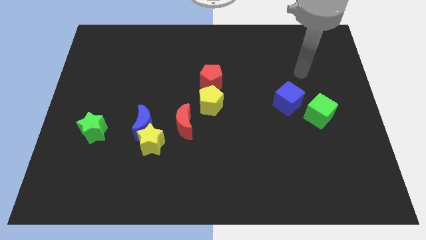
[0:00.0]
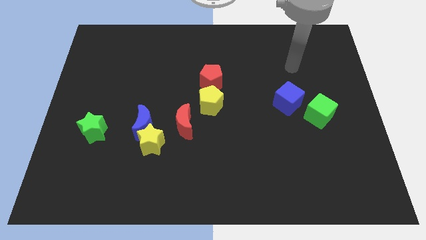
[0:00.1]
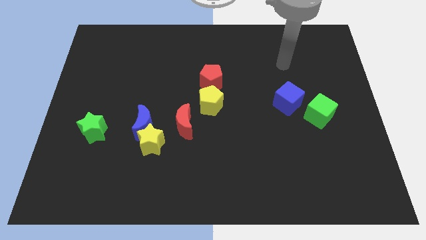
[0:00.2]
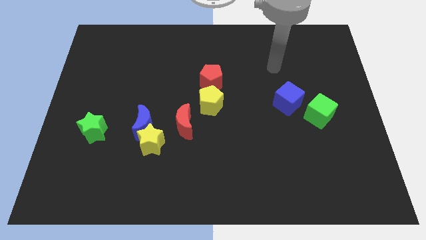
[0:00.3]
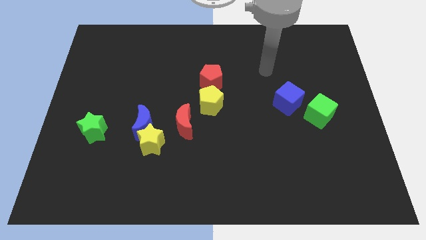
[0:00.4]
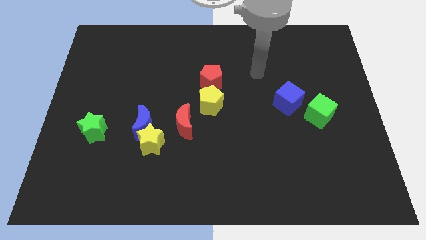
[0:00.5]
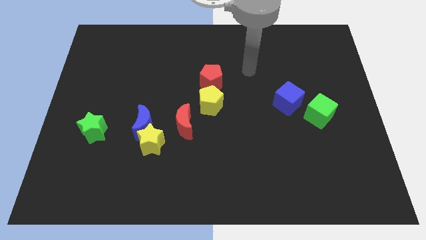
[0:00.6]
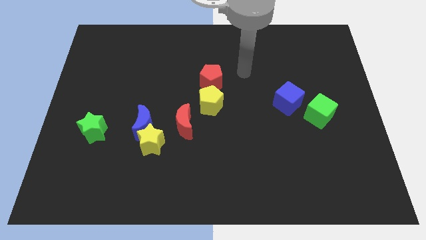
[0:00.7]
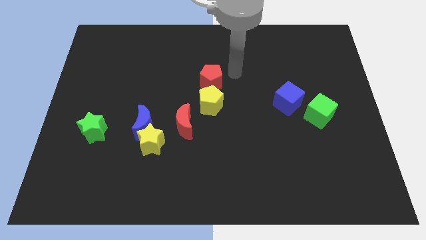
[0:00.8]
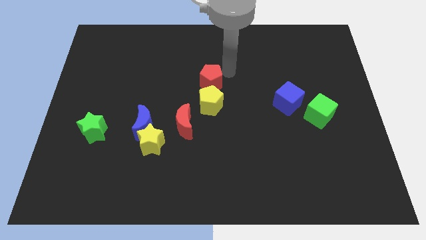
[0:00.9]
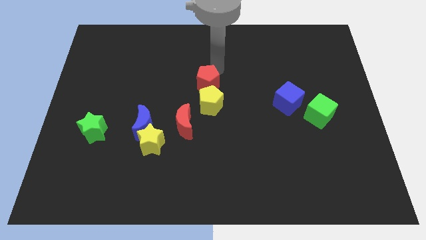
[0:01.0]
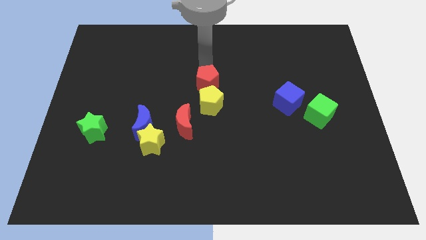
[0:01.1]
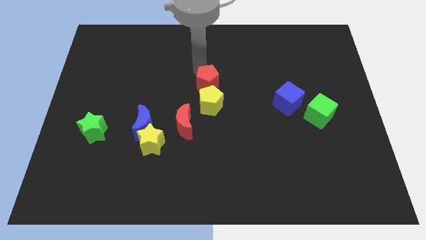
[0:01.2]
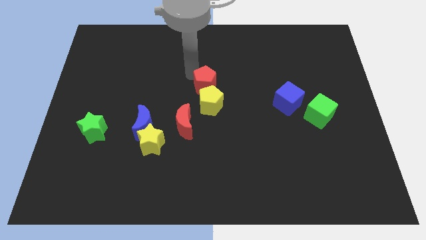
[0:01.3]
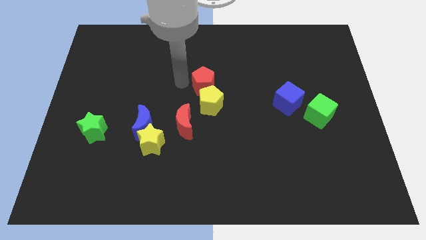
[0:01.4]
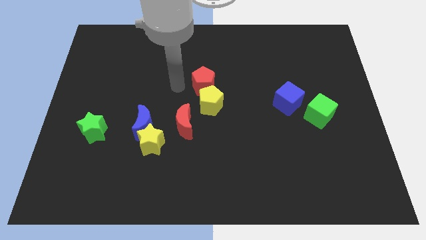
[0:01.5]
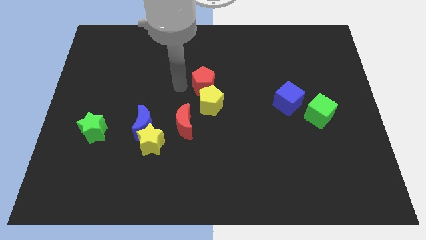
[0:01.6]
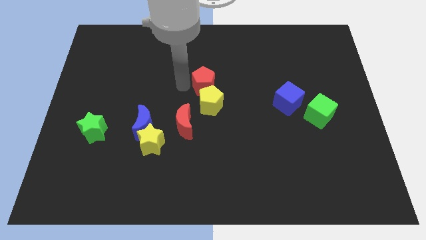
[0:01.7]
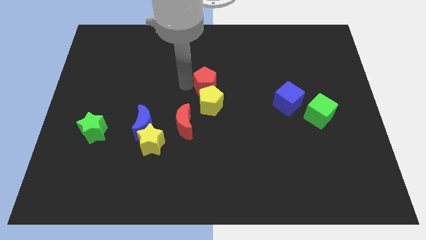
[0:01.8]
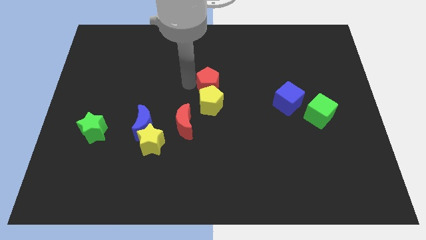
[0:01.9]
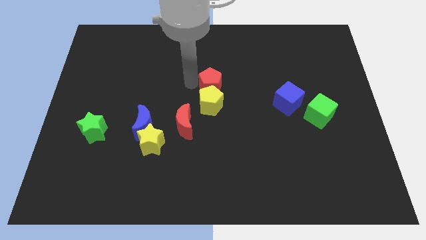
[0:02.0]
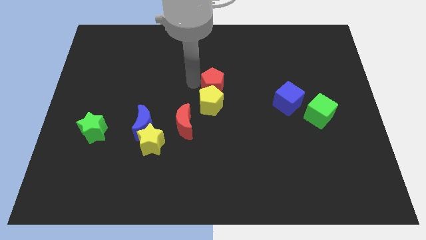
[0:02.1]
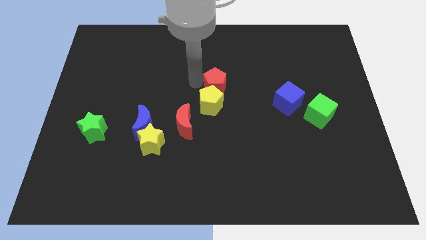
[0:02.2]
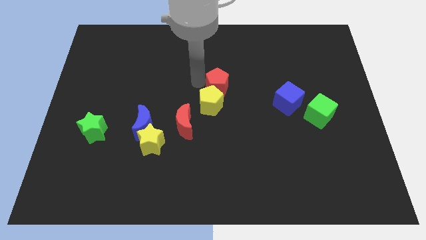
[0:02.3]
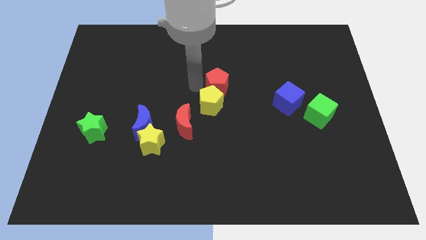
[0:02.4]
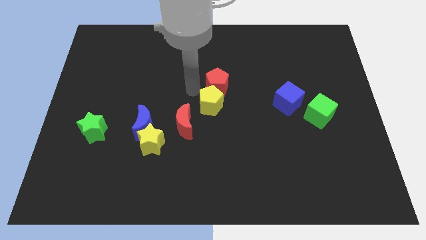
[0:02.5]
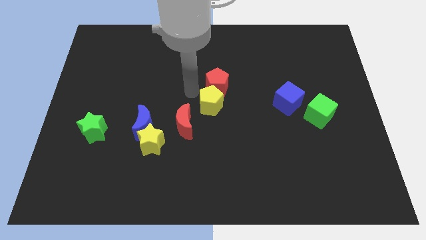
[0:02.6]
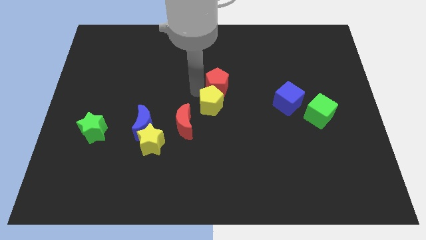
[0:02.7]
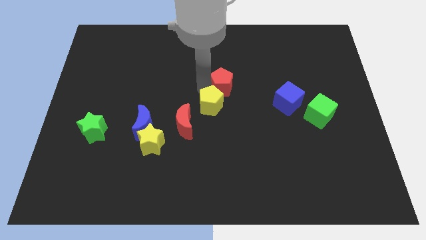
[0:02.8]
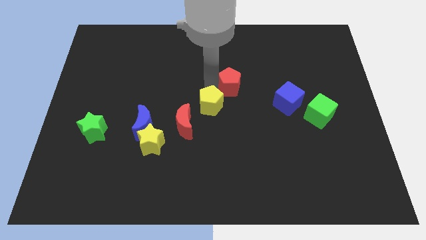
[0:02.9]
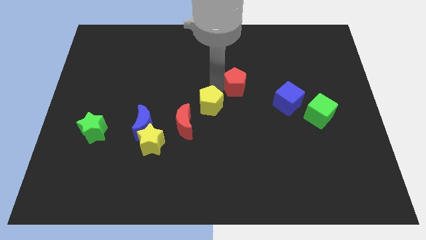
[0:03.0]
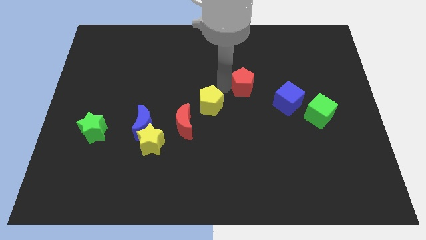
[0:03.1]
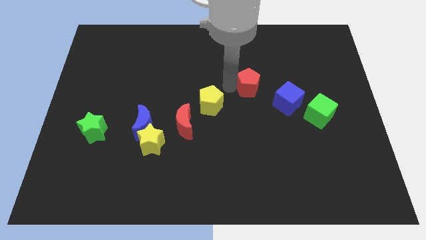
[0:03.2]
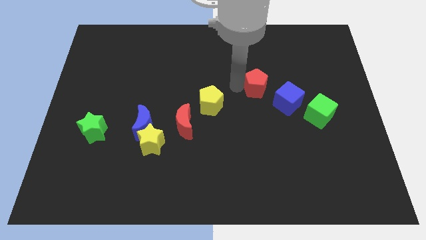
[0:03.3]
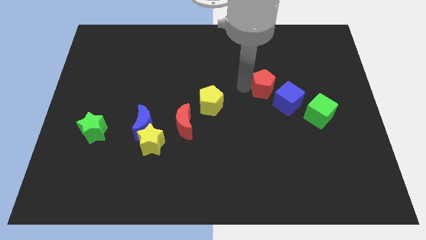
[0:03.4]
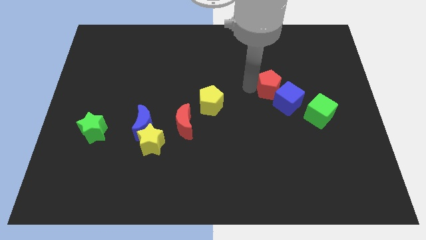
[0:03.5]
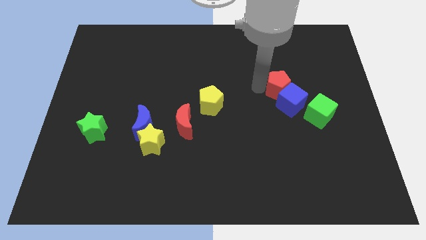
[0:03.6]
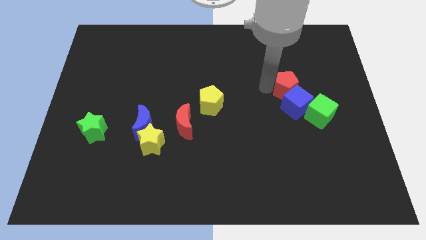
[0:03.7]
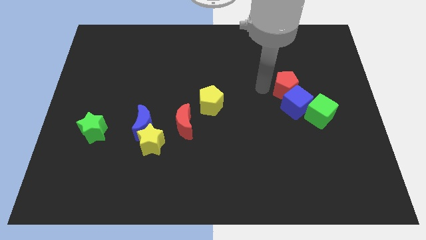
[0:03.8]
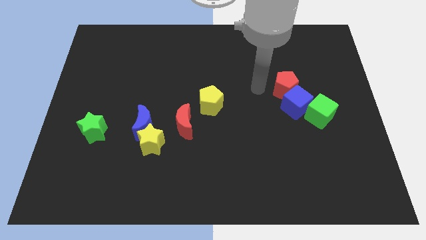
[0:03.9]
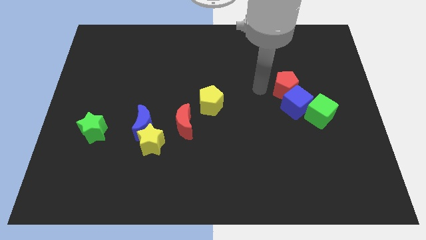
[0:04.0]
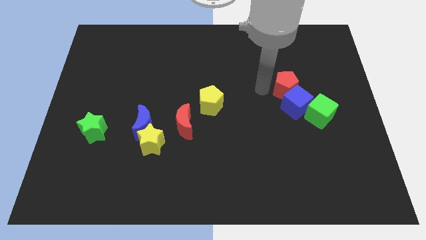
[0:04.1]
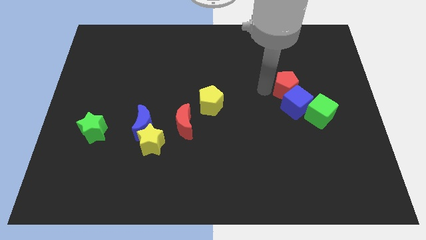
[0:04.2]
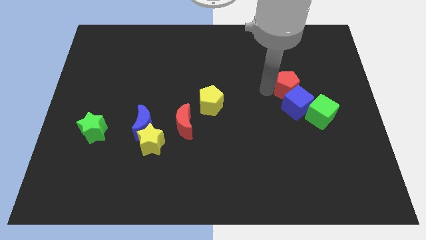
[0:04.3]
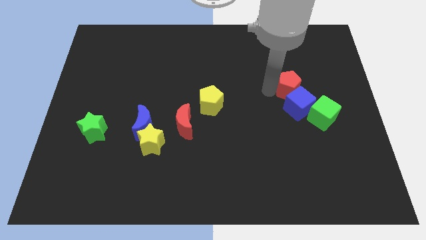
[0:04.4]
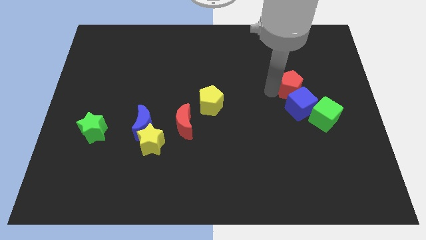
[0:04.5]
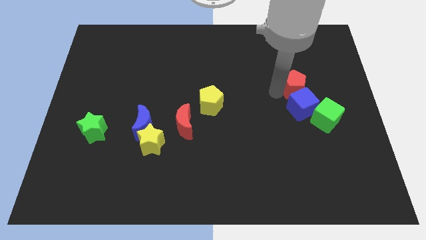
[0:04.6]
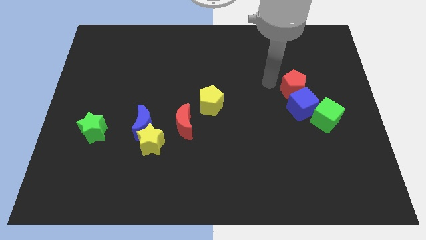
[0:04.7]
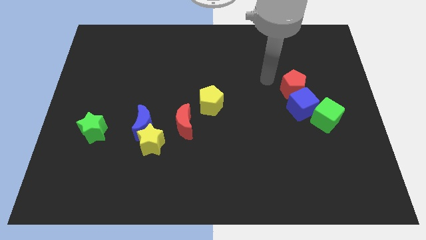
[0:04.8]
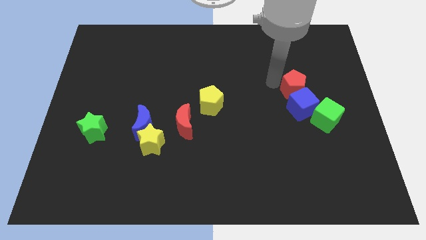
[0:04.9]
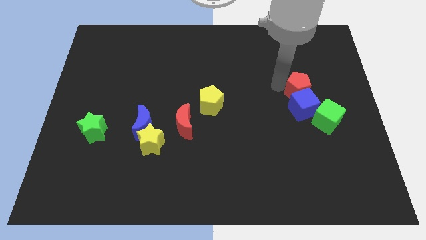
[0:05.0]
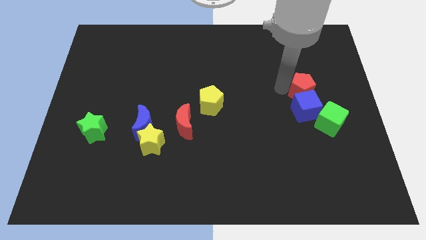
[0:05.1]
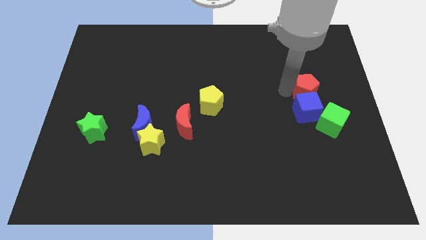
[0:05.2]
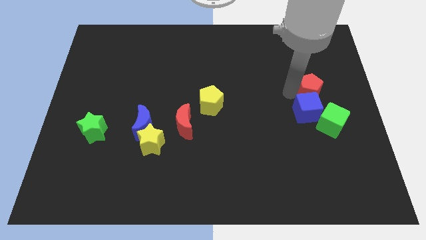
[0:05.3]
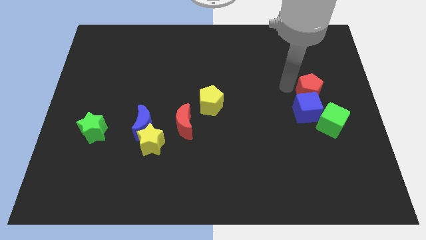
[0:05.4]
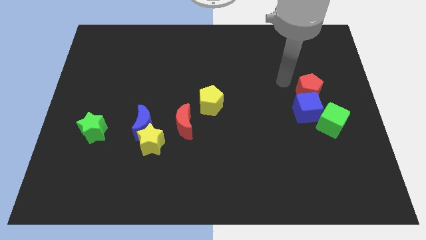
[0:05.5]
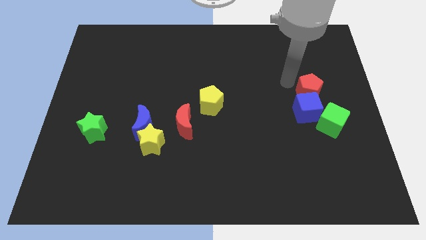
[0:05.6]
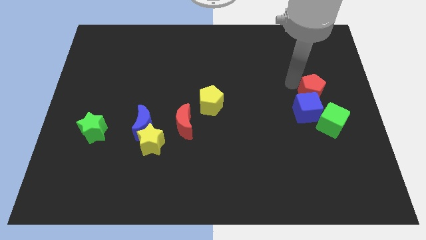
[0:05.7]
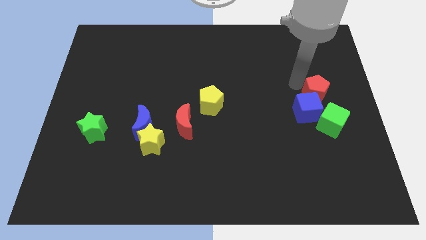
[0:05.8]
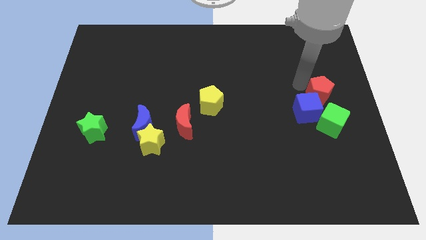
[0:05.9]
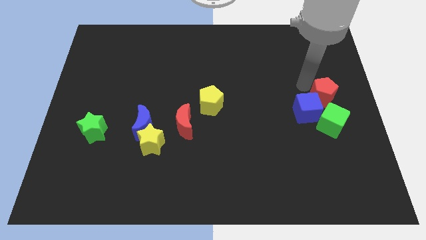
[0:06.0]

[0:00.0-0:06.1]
push the red pentagon to the right side of the blue cube
